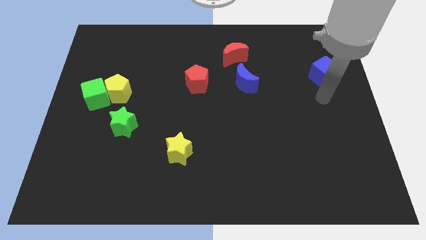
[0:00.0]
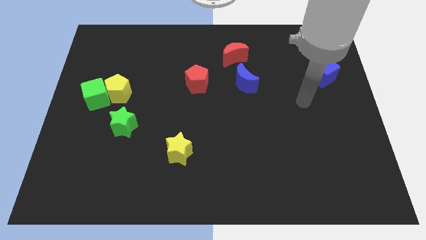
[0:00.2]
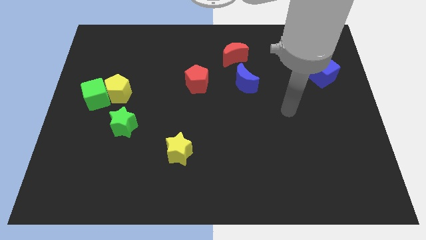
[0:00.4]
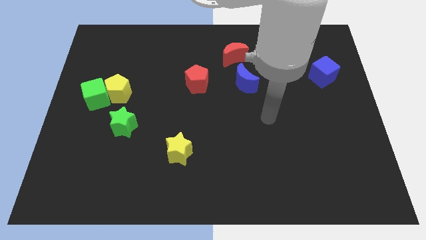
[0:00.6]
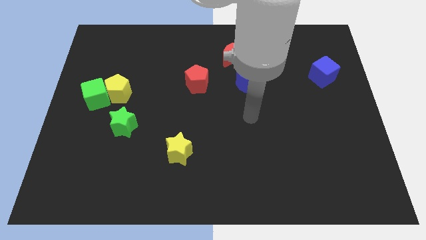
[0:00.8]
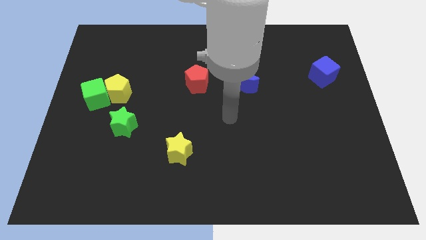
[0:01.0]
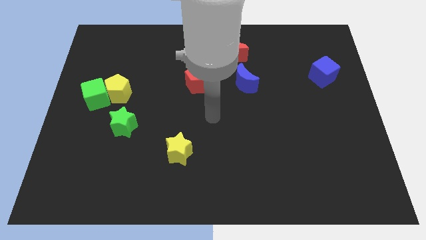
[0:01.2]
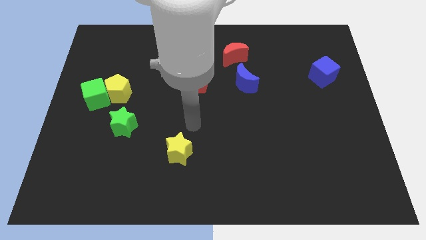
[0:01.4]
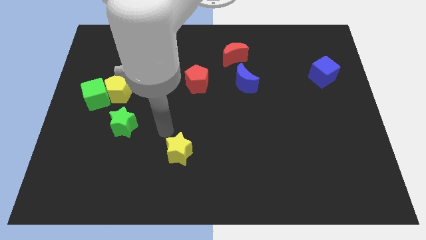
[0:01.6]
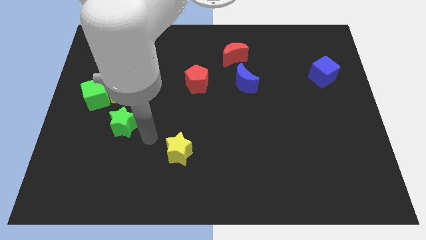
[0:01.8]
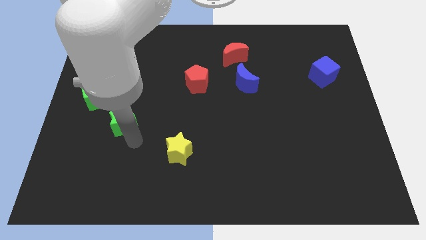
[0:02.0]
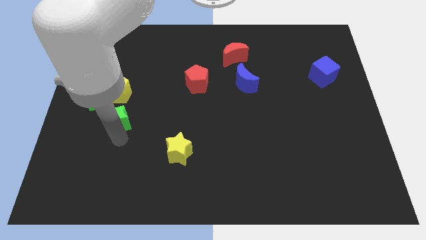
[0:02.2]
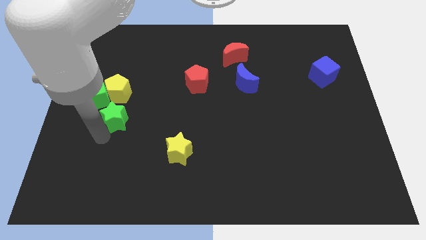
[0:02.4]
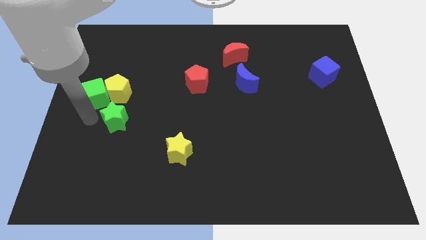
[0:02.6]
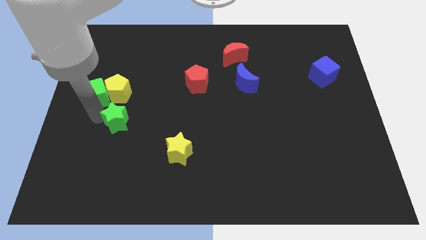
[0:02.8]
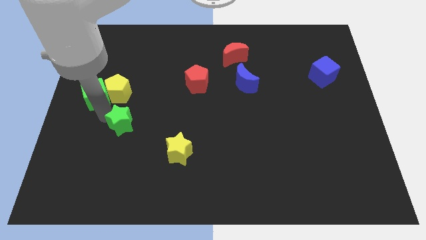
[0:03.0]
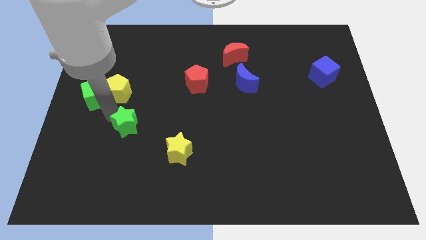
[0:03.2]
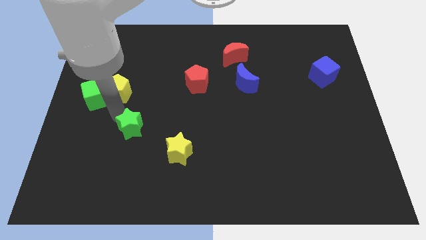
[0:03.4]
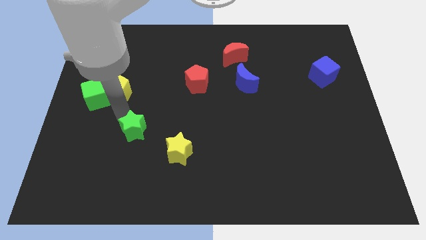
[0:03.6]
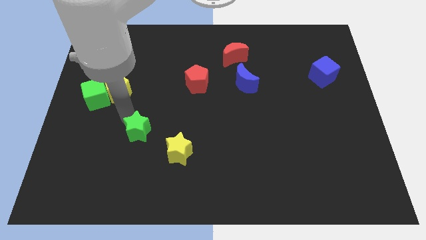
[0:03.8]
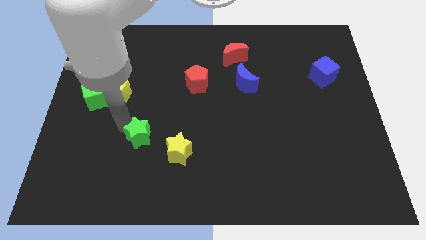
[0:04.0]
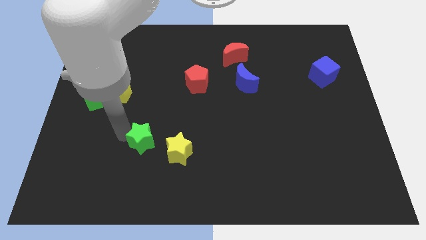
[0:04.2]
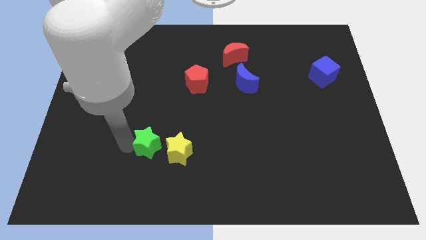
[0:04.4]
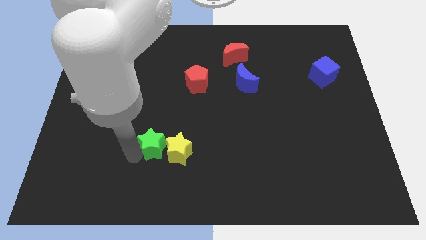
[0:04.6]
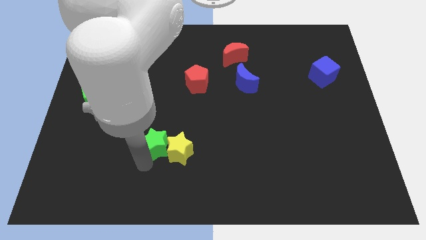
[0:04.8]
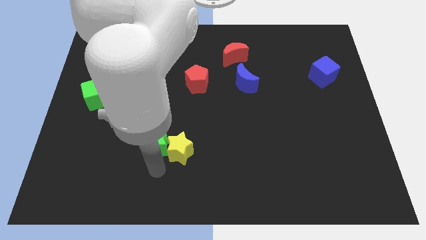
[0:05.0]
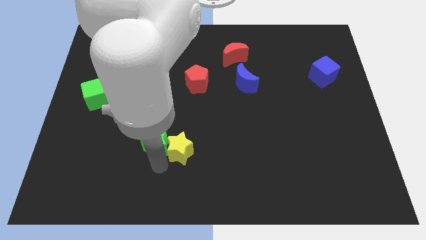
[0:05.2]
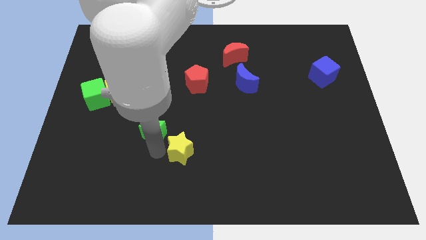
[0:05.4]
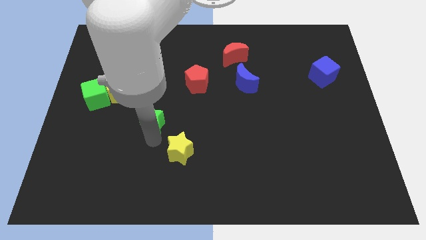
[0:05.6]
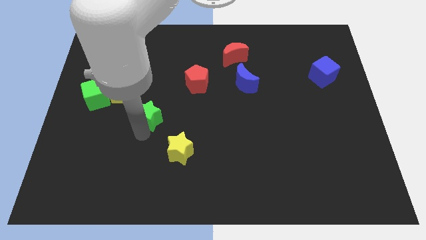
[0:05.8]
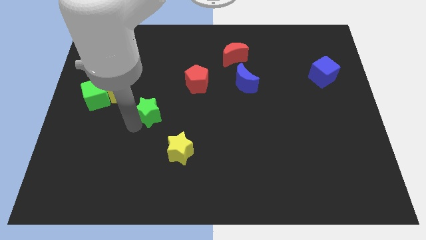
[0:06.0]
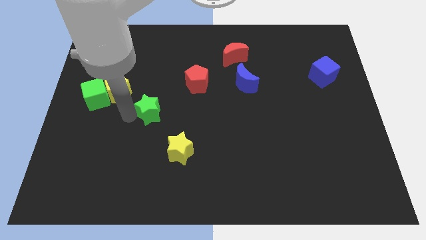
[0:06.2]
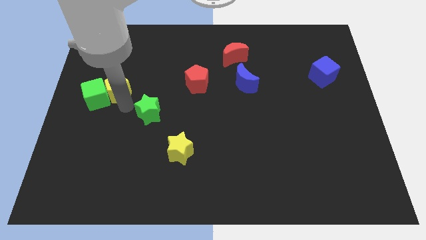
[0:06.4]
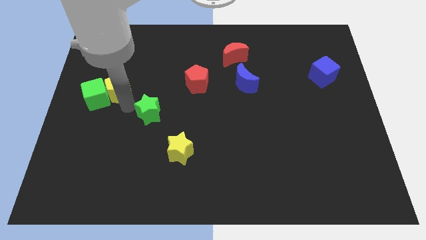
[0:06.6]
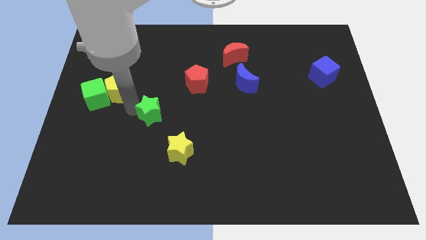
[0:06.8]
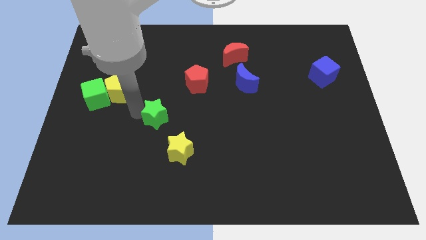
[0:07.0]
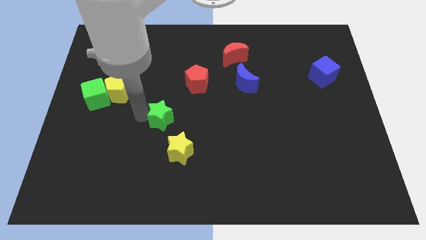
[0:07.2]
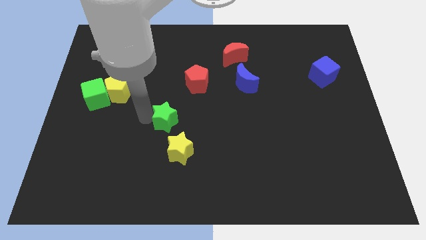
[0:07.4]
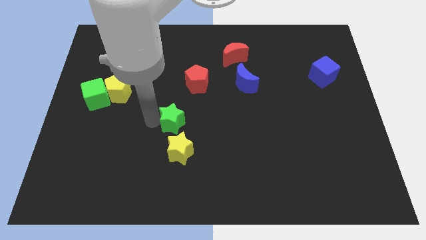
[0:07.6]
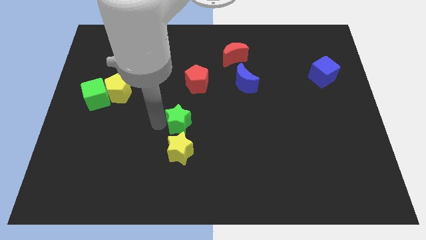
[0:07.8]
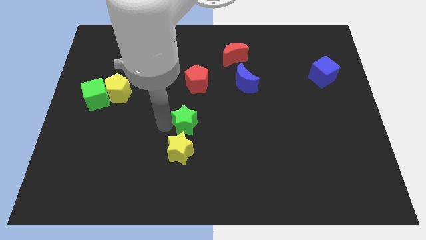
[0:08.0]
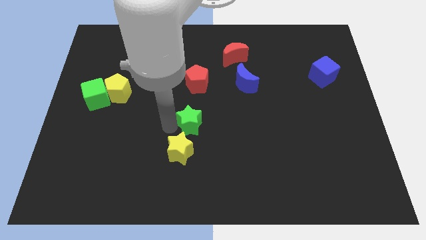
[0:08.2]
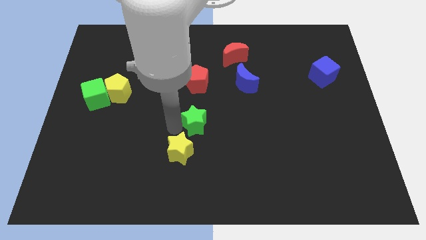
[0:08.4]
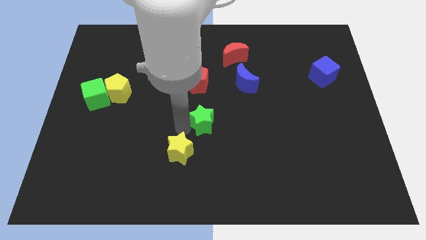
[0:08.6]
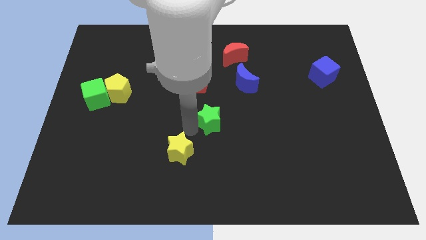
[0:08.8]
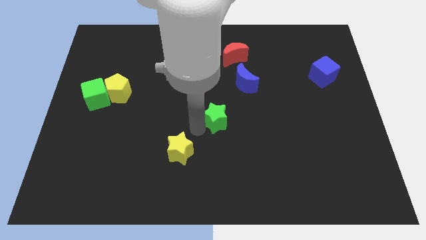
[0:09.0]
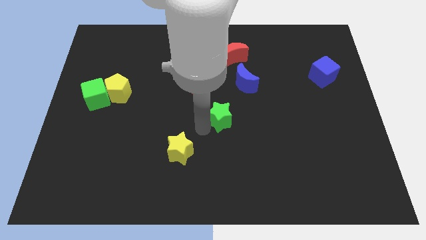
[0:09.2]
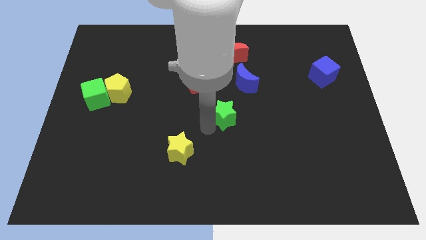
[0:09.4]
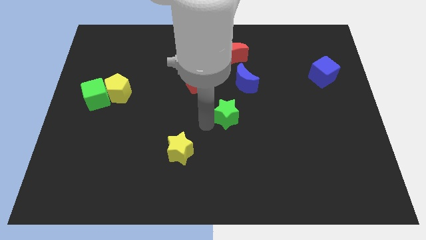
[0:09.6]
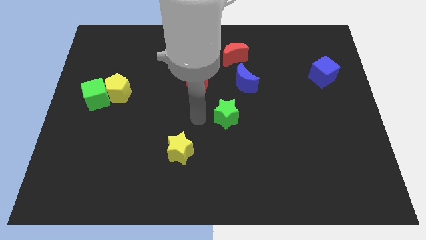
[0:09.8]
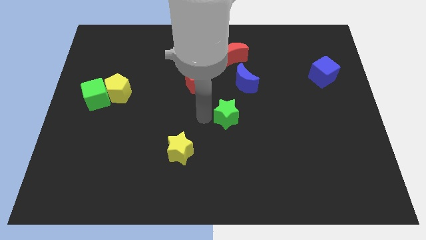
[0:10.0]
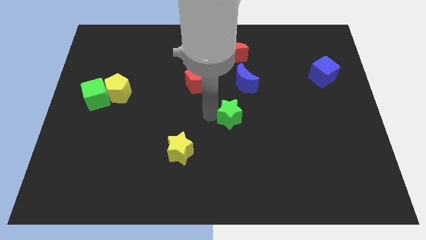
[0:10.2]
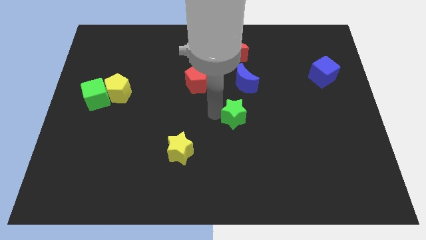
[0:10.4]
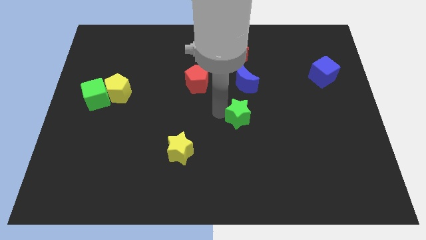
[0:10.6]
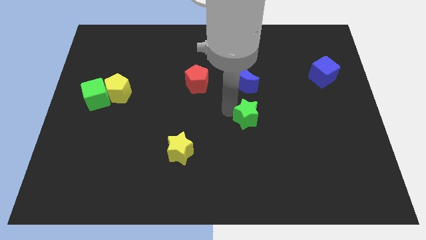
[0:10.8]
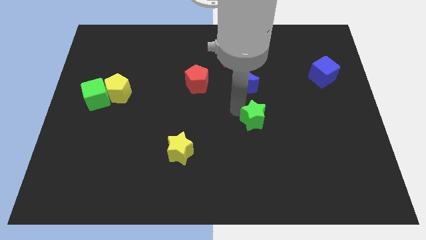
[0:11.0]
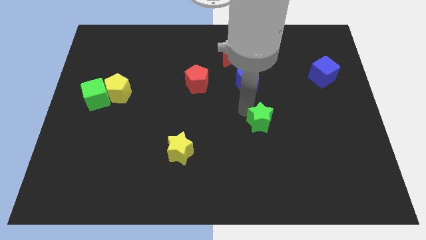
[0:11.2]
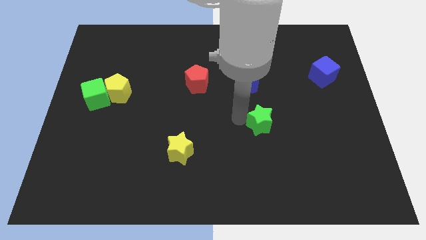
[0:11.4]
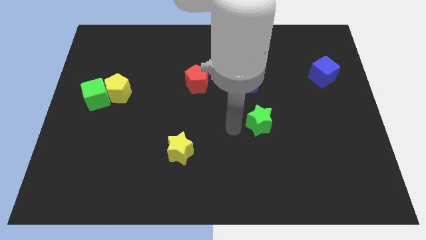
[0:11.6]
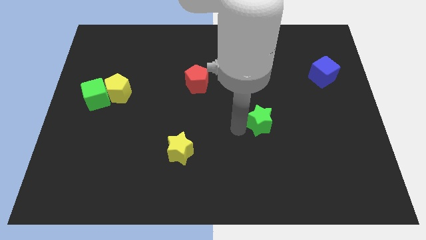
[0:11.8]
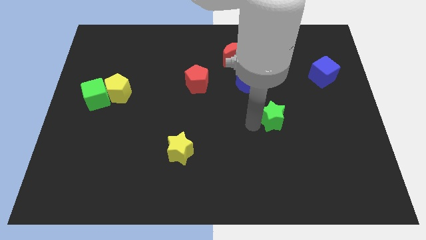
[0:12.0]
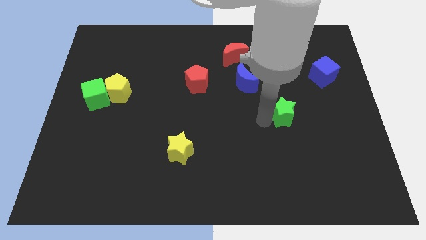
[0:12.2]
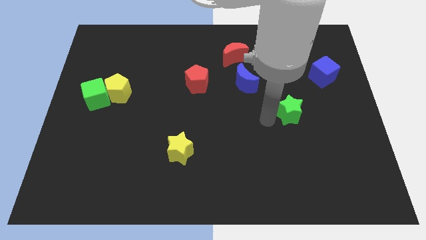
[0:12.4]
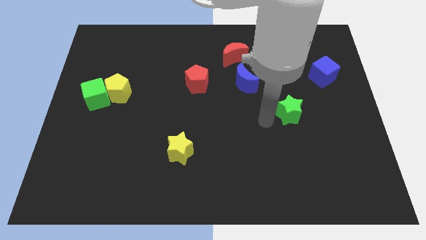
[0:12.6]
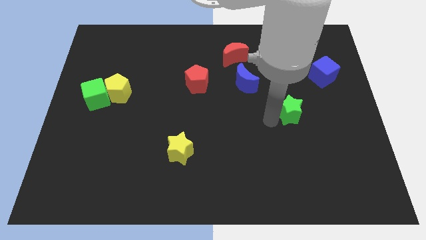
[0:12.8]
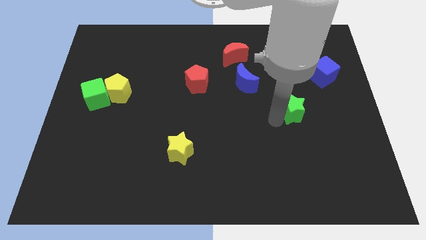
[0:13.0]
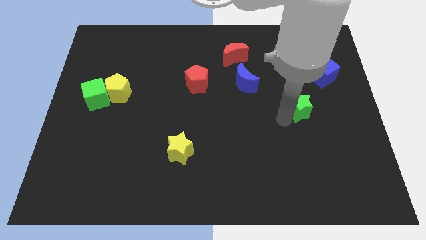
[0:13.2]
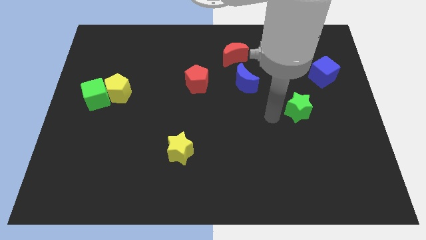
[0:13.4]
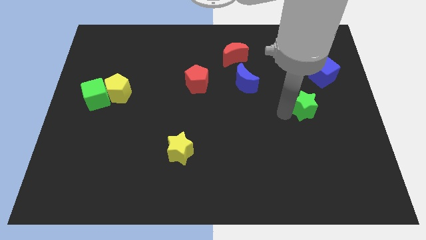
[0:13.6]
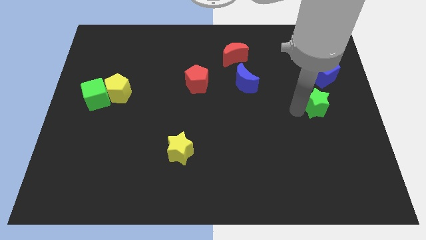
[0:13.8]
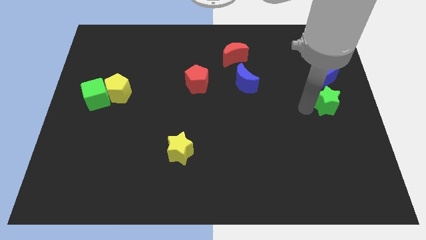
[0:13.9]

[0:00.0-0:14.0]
slide the green star to the center right
